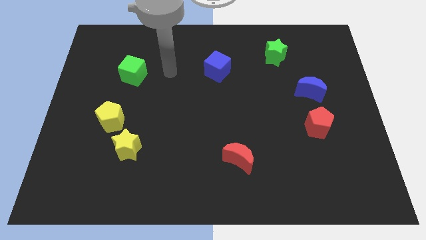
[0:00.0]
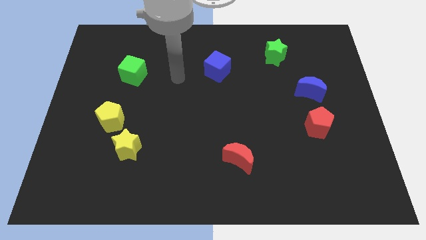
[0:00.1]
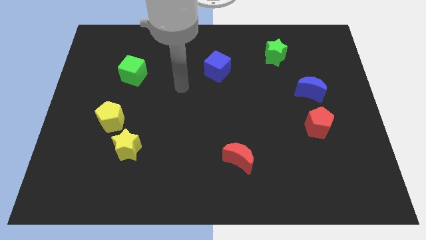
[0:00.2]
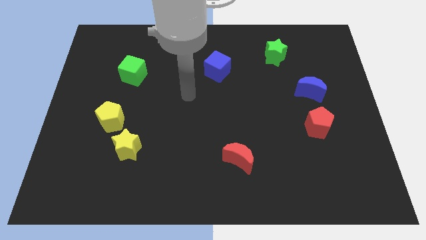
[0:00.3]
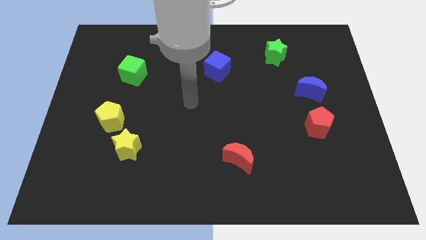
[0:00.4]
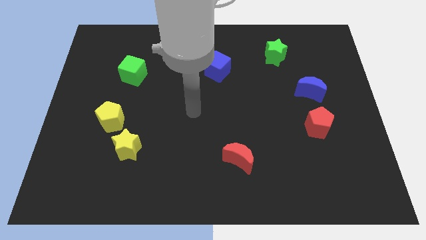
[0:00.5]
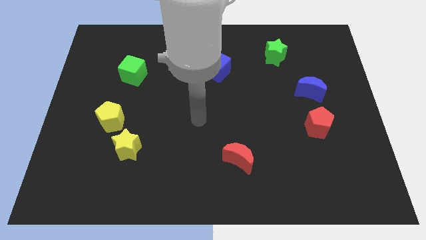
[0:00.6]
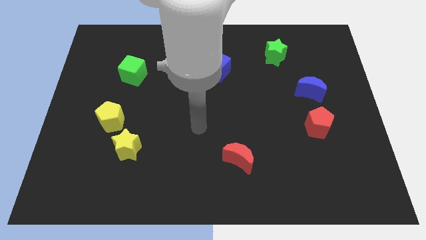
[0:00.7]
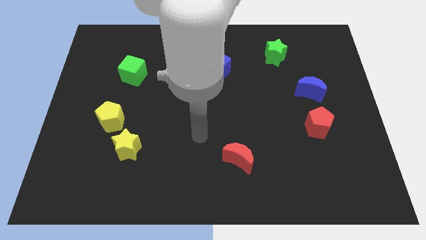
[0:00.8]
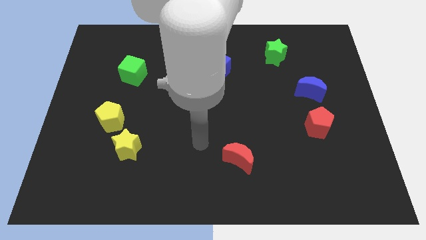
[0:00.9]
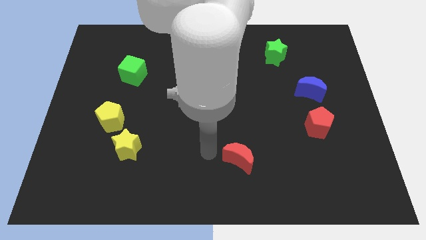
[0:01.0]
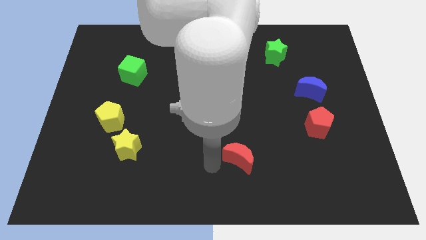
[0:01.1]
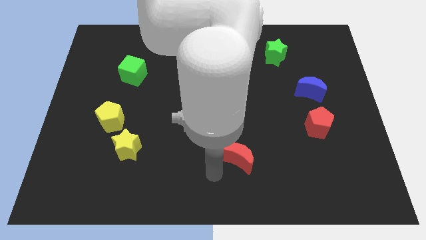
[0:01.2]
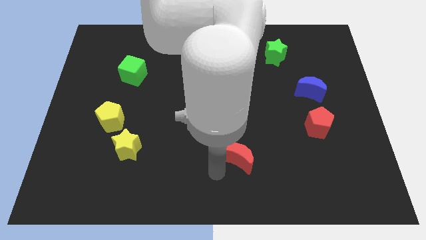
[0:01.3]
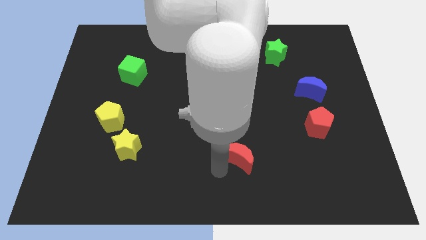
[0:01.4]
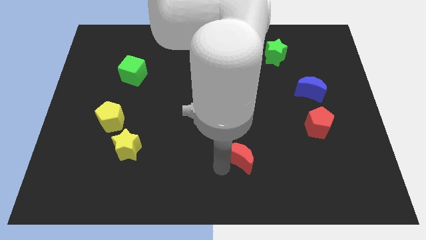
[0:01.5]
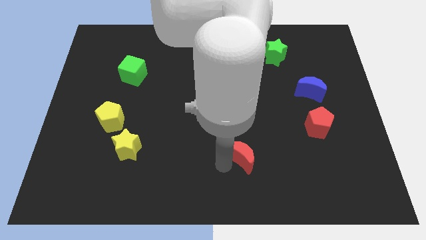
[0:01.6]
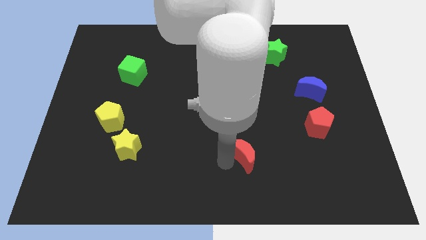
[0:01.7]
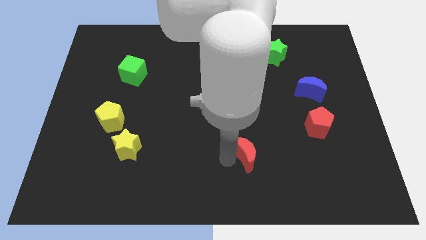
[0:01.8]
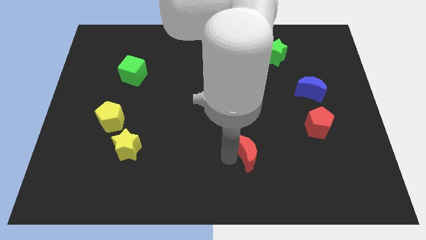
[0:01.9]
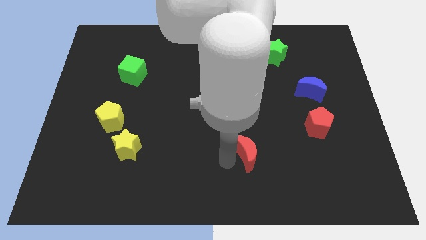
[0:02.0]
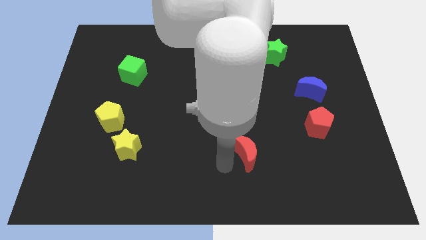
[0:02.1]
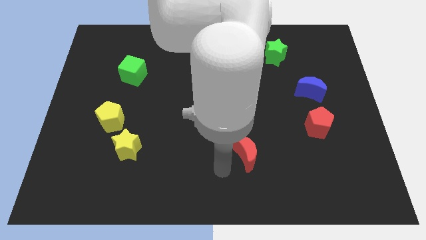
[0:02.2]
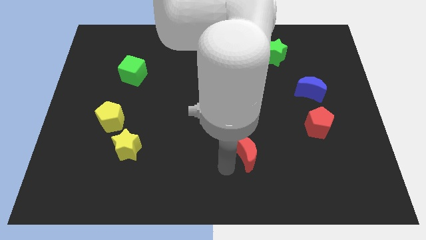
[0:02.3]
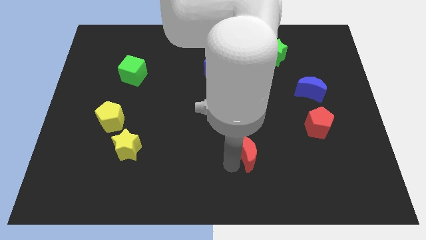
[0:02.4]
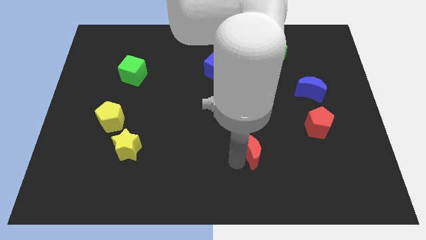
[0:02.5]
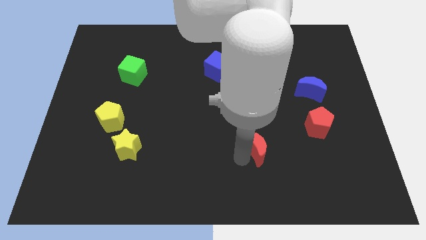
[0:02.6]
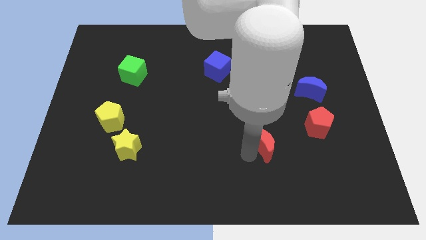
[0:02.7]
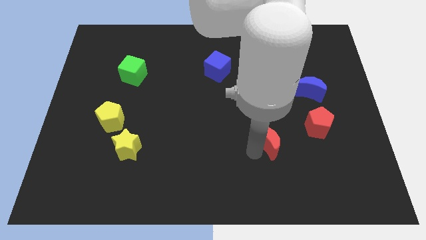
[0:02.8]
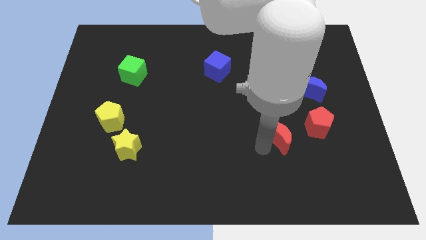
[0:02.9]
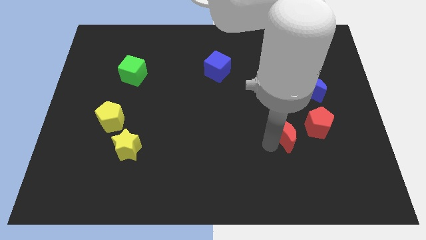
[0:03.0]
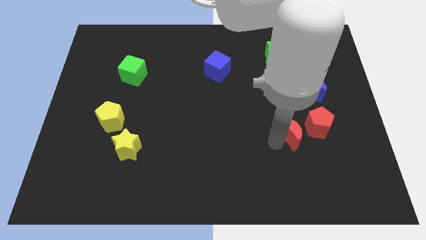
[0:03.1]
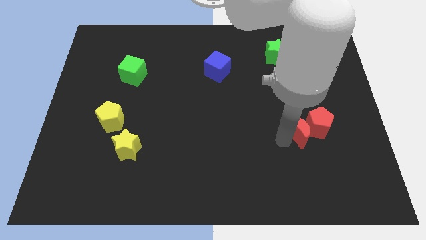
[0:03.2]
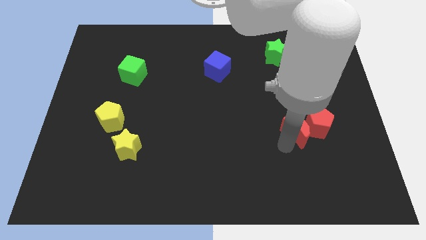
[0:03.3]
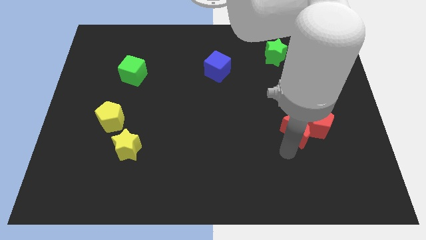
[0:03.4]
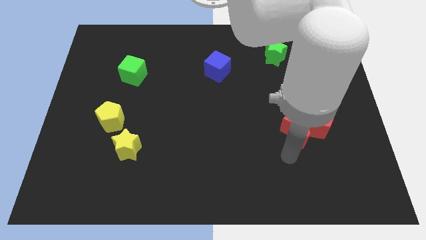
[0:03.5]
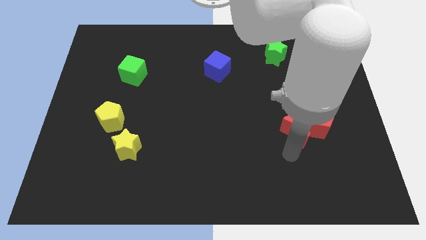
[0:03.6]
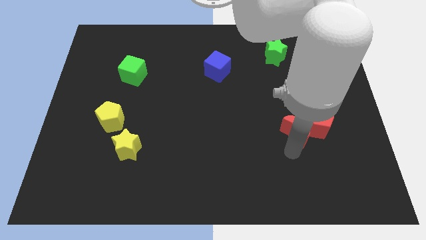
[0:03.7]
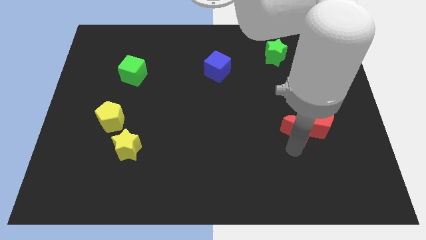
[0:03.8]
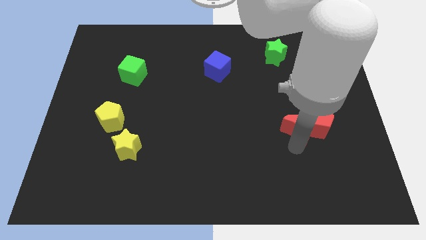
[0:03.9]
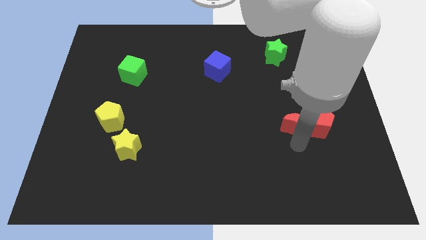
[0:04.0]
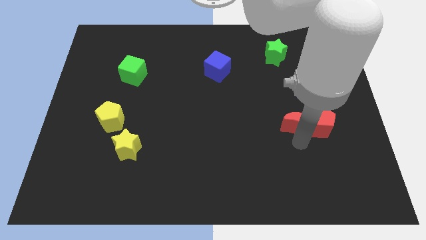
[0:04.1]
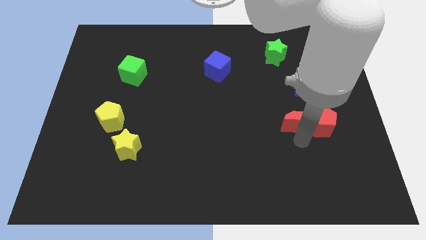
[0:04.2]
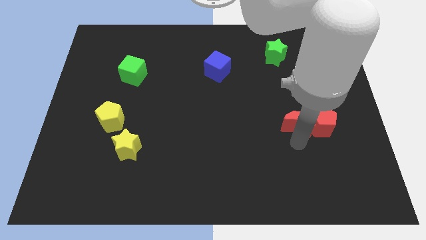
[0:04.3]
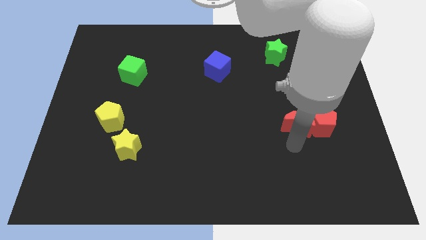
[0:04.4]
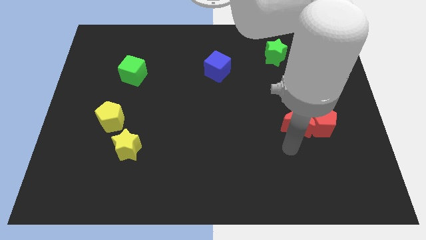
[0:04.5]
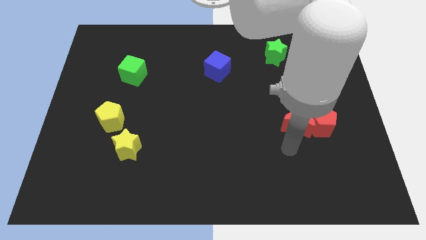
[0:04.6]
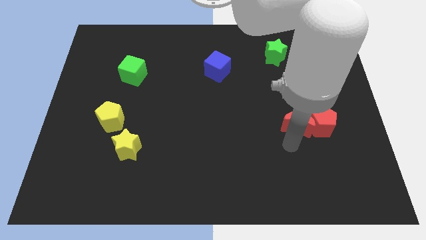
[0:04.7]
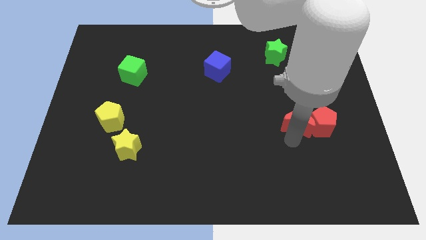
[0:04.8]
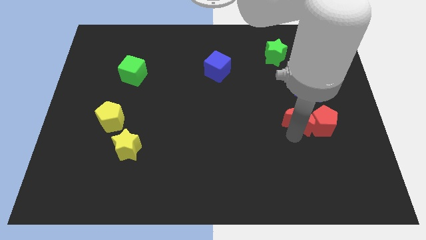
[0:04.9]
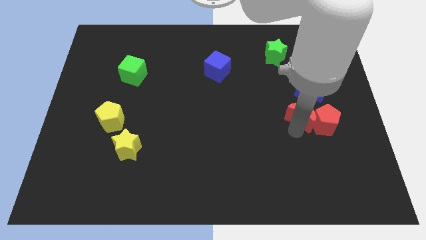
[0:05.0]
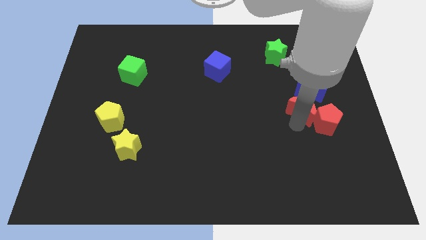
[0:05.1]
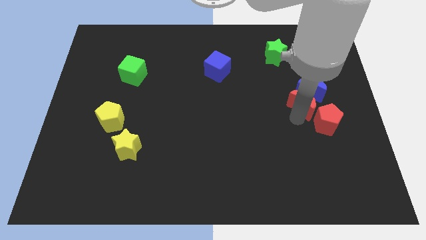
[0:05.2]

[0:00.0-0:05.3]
slide the red moon diagonally up and to the right

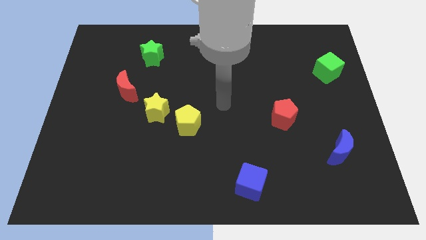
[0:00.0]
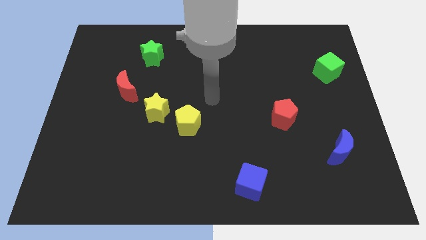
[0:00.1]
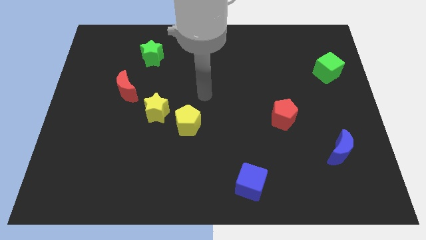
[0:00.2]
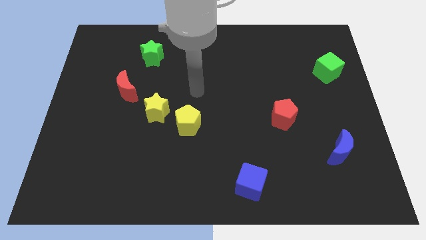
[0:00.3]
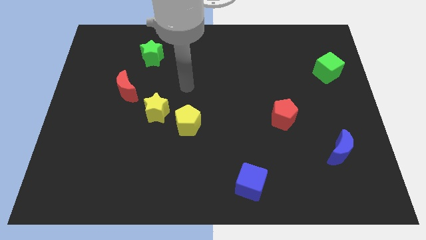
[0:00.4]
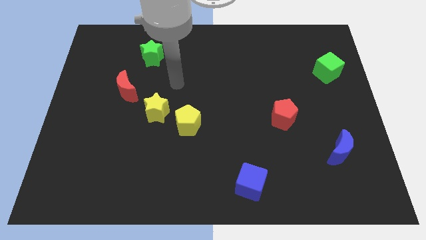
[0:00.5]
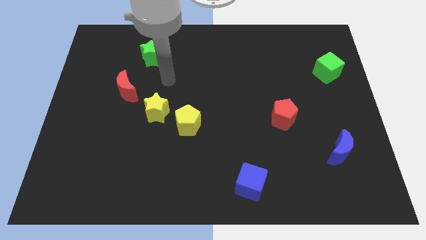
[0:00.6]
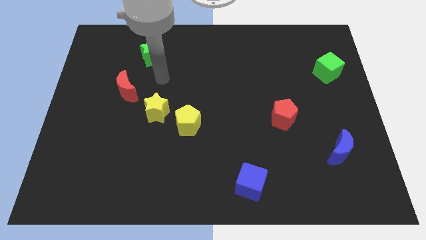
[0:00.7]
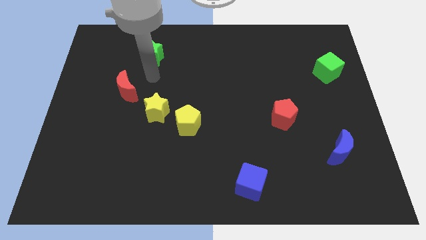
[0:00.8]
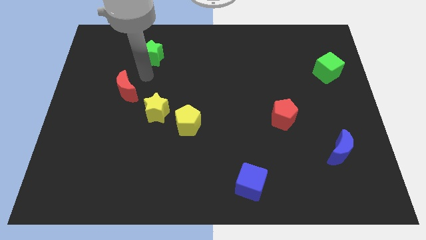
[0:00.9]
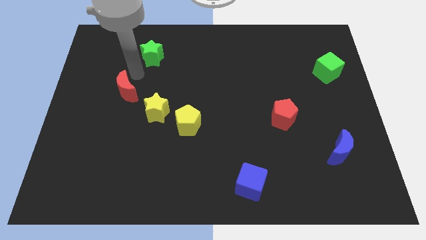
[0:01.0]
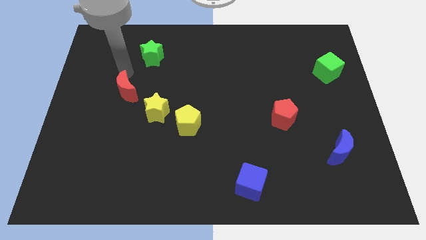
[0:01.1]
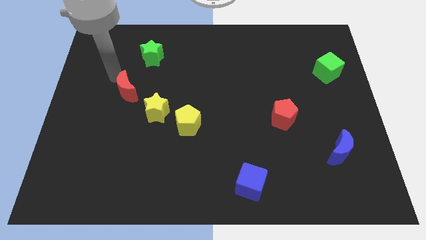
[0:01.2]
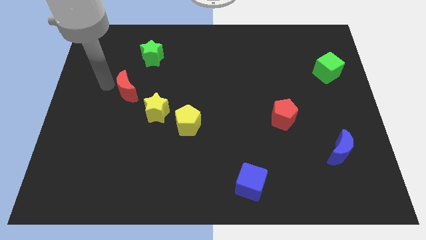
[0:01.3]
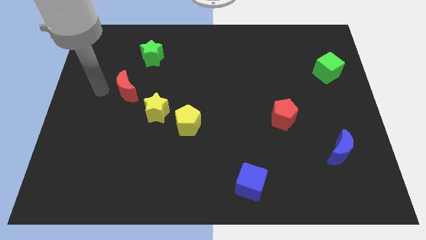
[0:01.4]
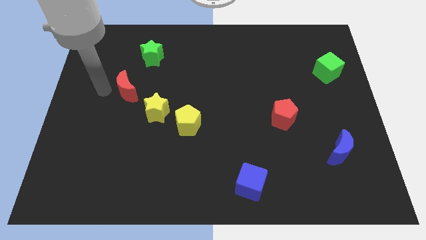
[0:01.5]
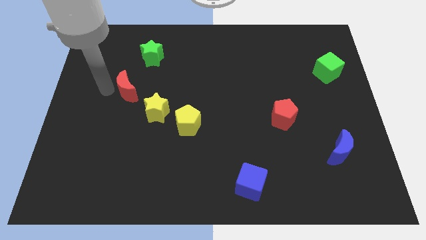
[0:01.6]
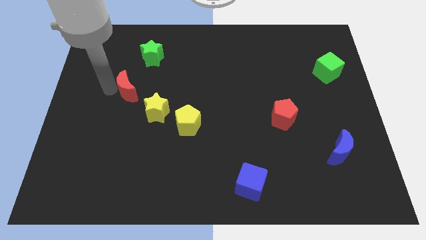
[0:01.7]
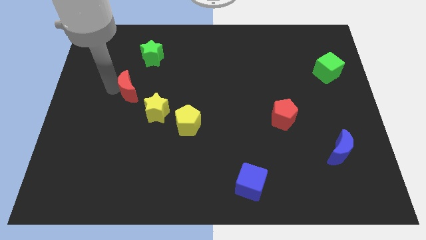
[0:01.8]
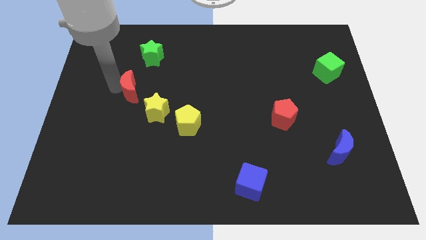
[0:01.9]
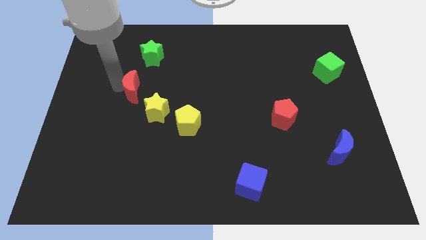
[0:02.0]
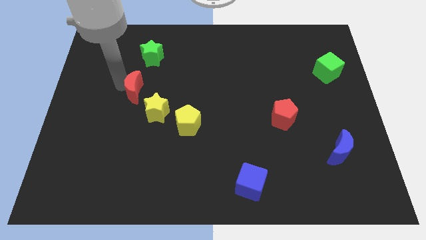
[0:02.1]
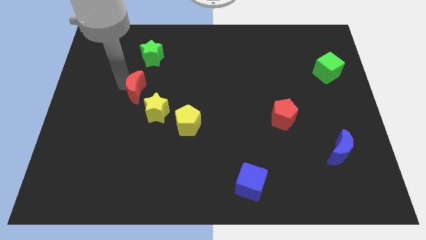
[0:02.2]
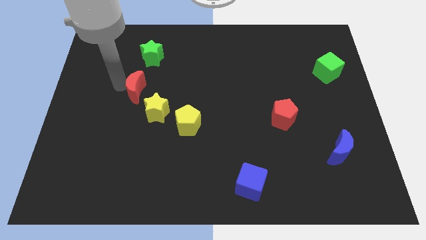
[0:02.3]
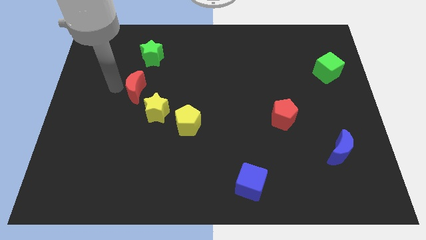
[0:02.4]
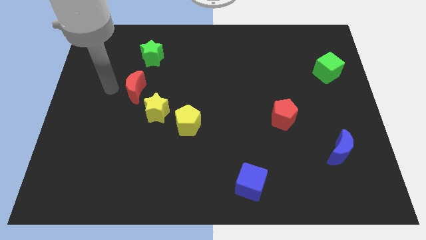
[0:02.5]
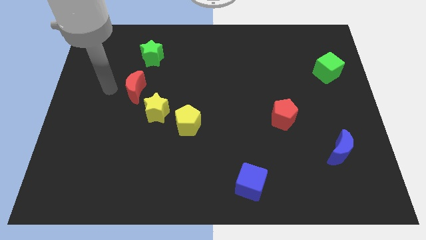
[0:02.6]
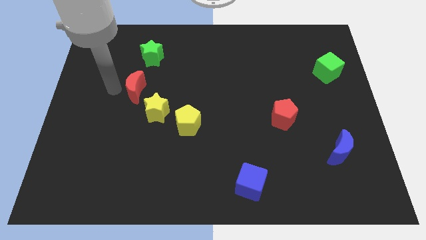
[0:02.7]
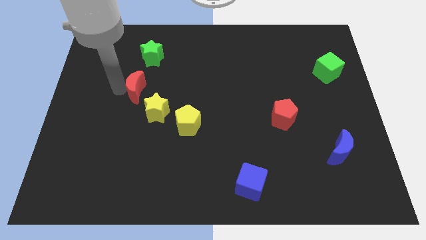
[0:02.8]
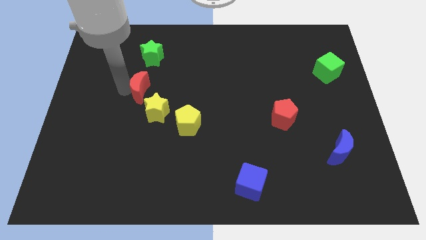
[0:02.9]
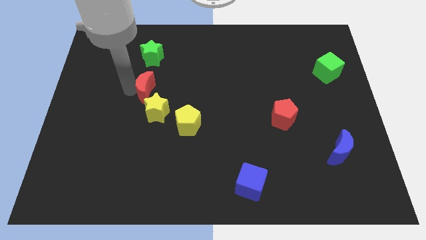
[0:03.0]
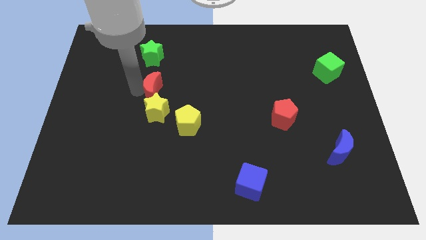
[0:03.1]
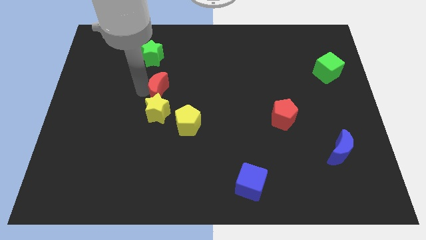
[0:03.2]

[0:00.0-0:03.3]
move the red moon slightly right
